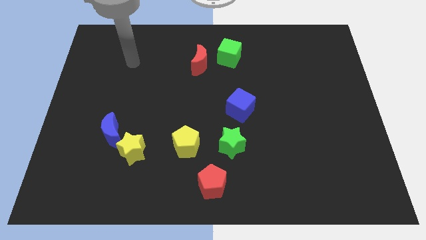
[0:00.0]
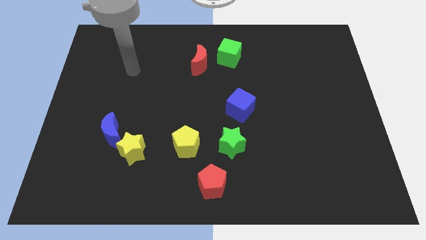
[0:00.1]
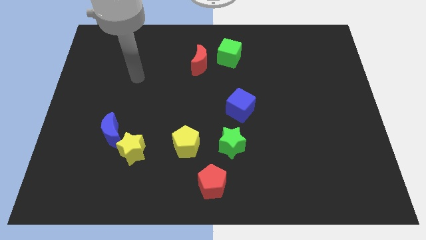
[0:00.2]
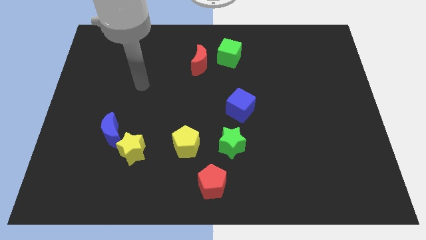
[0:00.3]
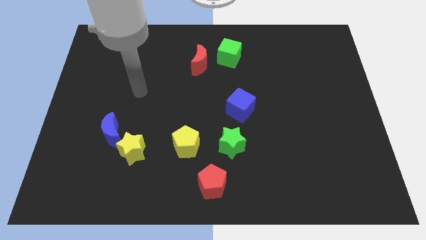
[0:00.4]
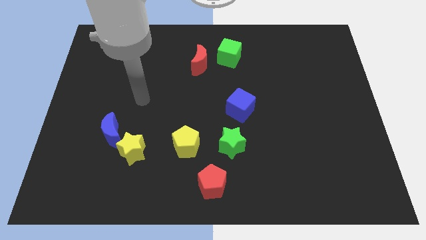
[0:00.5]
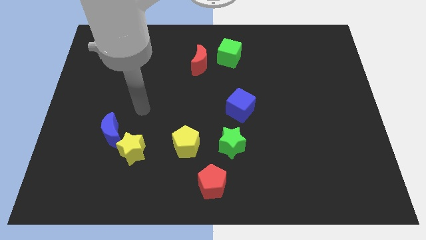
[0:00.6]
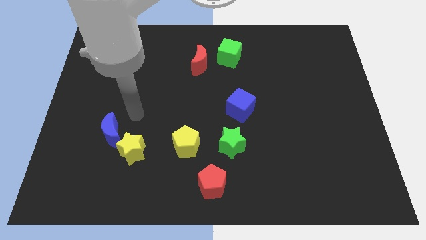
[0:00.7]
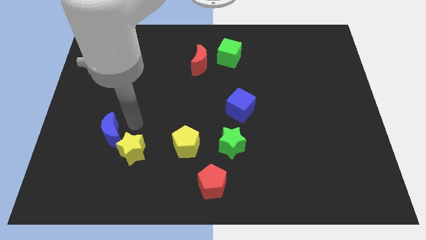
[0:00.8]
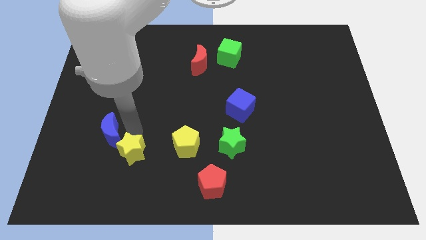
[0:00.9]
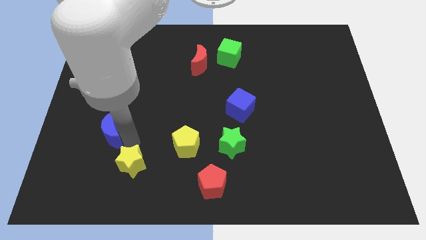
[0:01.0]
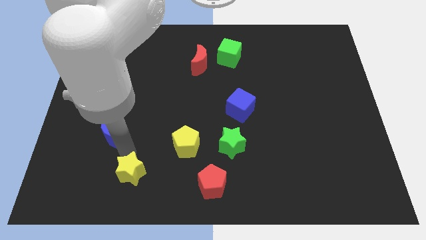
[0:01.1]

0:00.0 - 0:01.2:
separate the blue moon from the yellow star

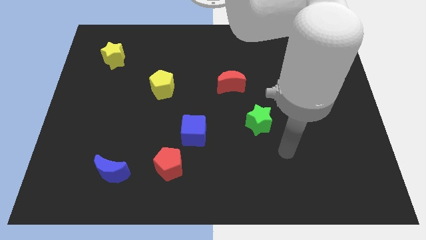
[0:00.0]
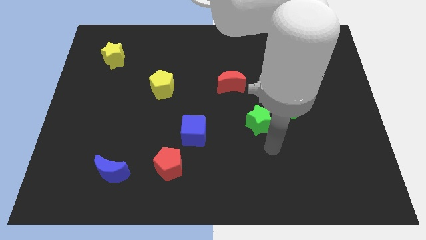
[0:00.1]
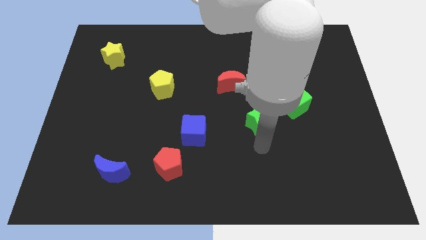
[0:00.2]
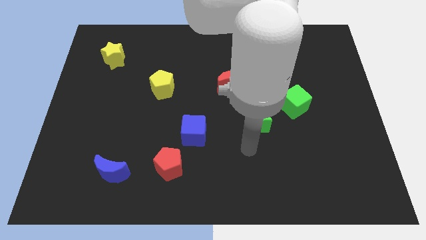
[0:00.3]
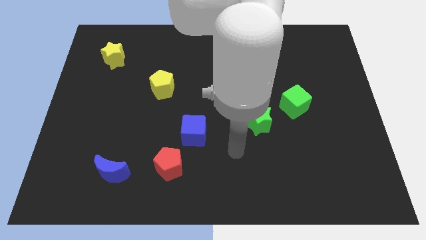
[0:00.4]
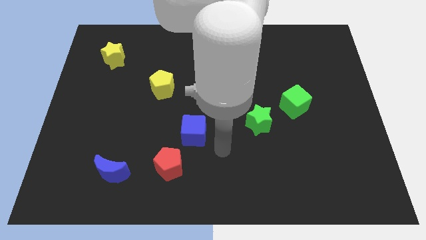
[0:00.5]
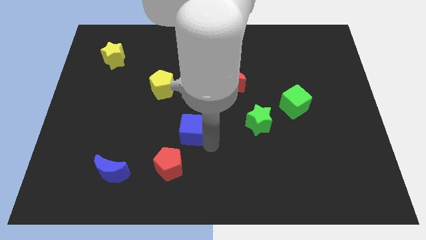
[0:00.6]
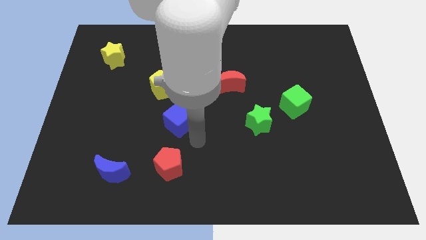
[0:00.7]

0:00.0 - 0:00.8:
pull the red pentagon apart from the blue cube

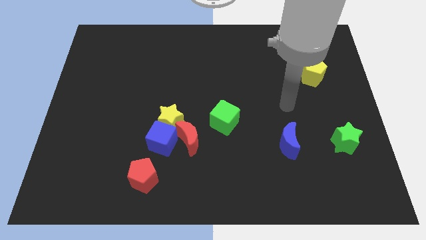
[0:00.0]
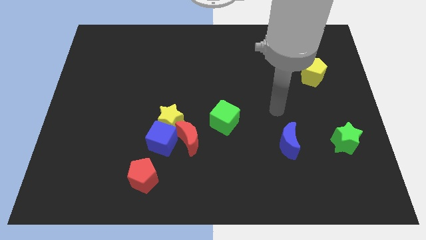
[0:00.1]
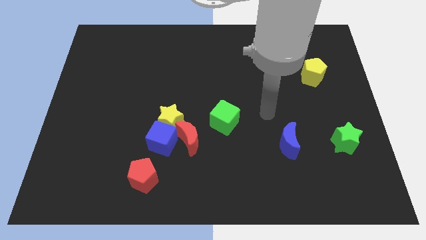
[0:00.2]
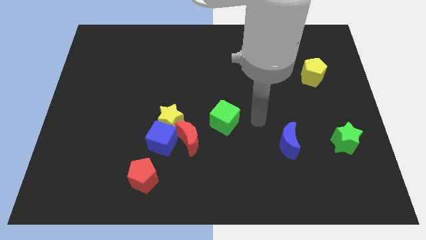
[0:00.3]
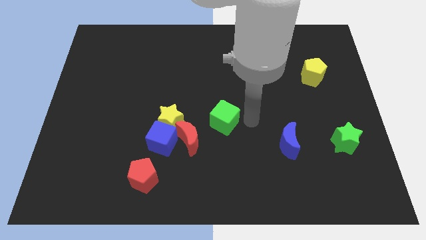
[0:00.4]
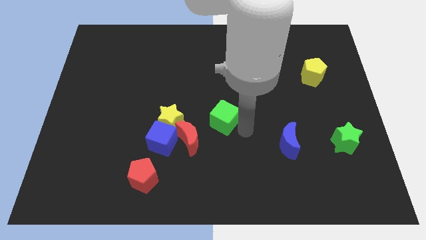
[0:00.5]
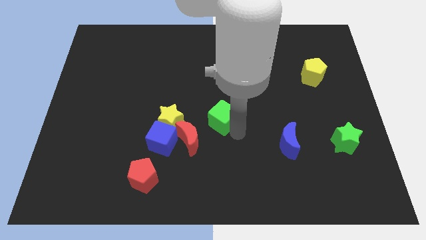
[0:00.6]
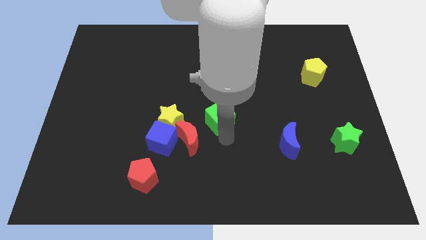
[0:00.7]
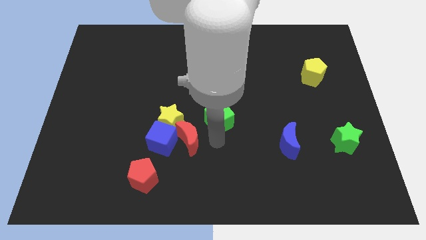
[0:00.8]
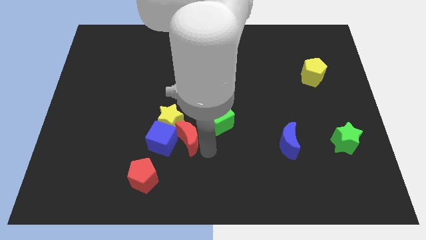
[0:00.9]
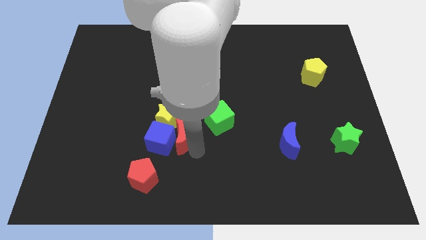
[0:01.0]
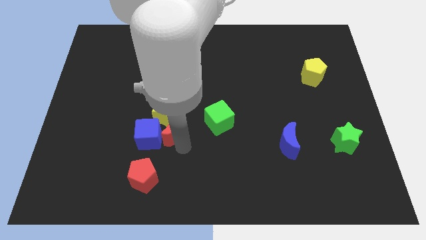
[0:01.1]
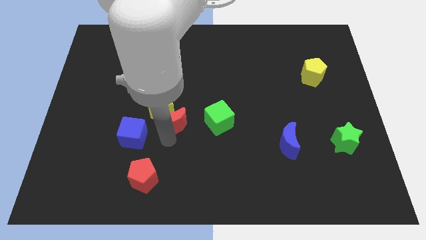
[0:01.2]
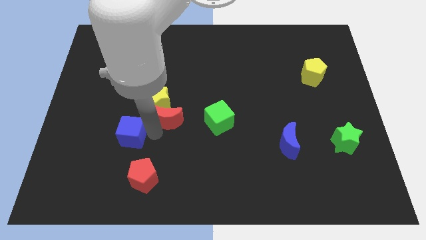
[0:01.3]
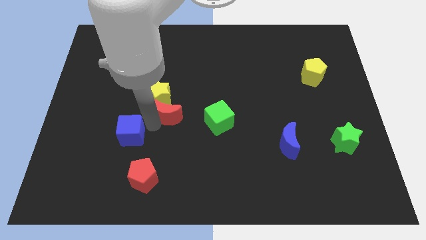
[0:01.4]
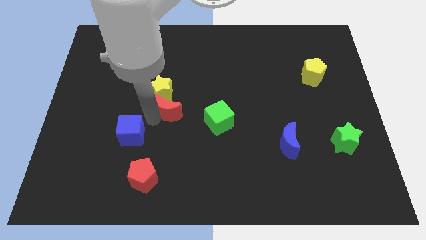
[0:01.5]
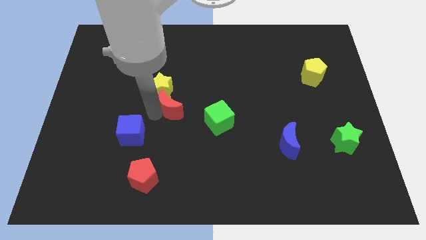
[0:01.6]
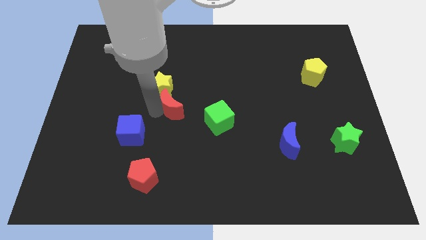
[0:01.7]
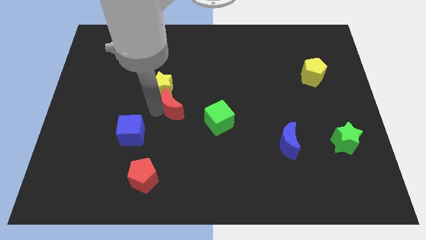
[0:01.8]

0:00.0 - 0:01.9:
pull the yellow star apart from the blue cube and red moon

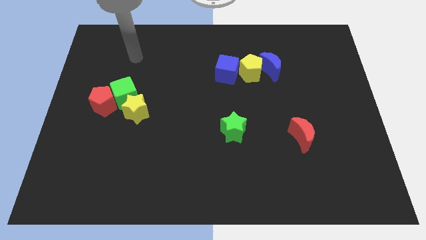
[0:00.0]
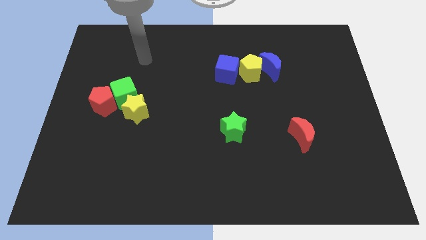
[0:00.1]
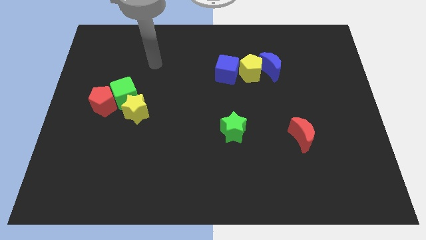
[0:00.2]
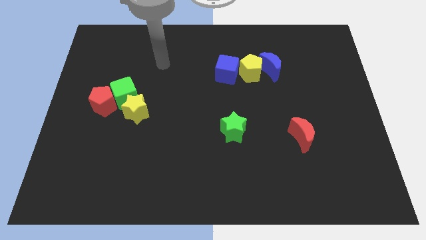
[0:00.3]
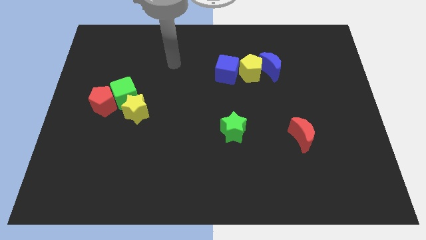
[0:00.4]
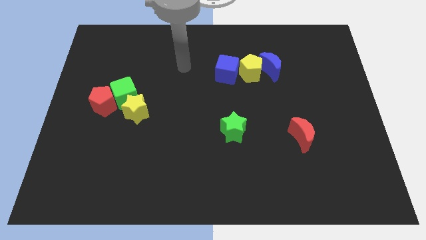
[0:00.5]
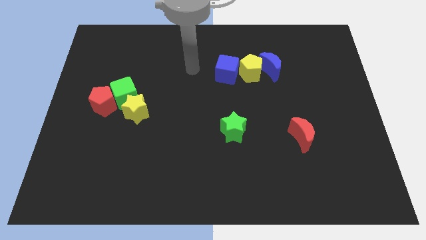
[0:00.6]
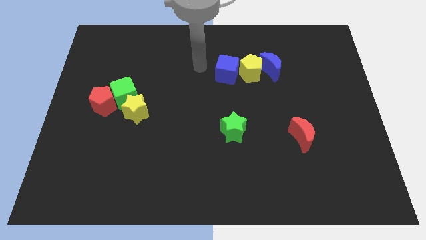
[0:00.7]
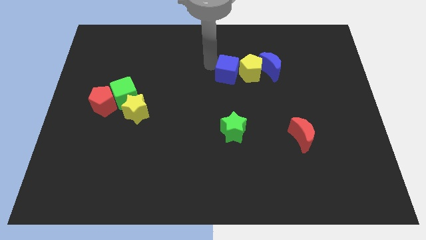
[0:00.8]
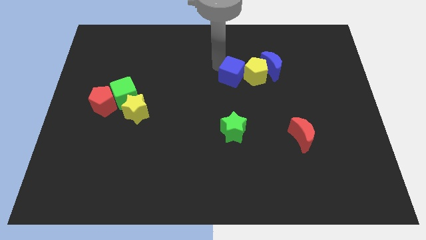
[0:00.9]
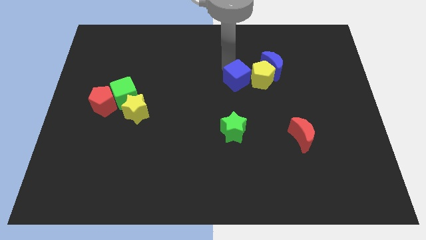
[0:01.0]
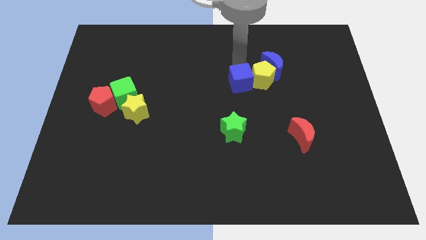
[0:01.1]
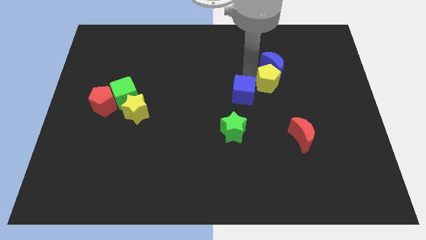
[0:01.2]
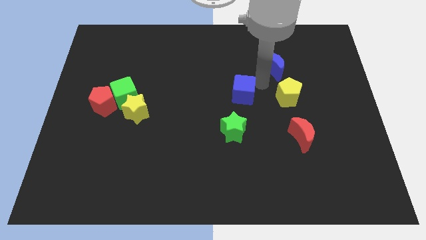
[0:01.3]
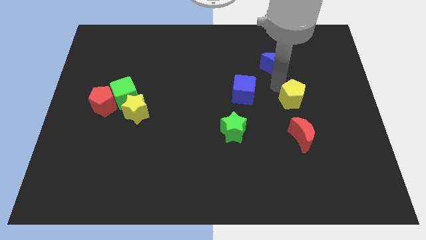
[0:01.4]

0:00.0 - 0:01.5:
pull the blue moon apart from the yellow pentagon

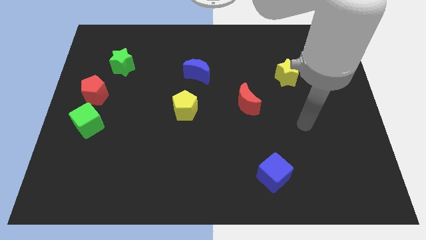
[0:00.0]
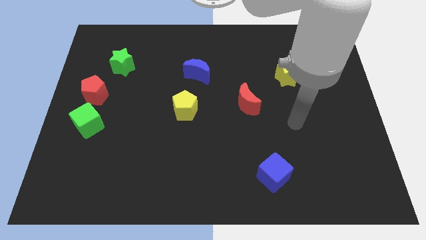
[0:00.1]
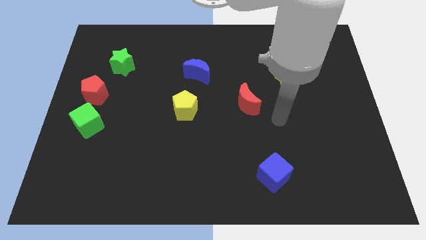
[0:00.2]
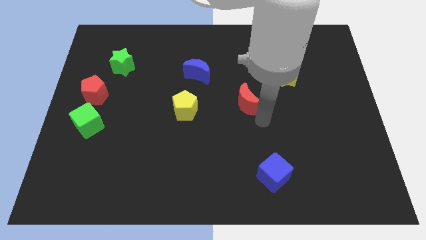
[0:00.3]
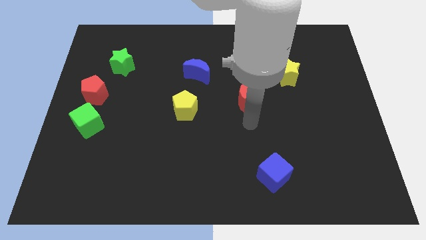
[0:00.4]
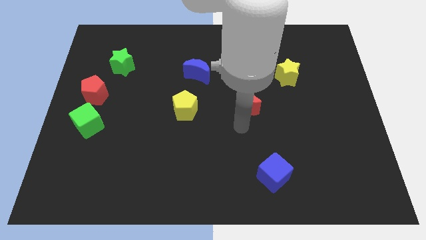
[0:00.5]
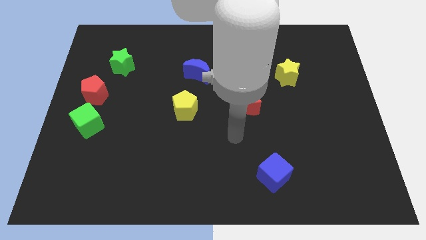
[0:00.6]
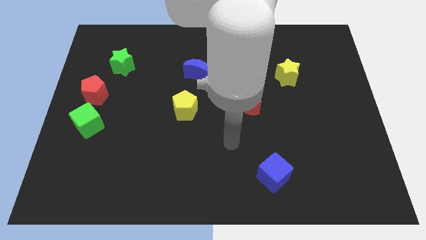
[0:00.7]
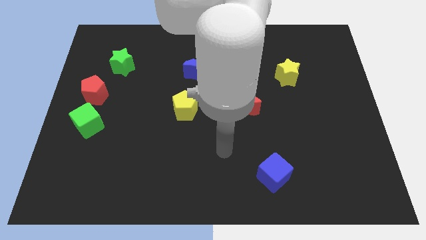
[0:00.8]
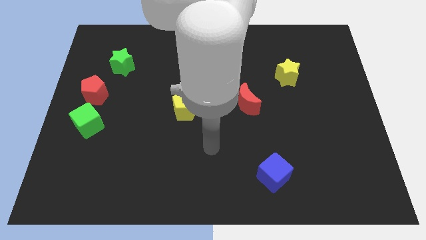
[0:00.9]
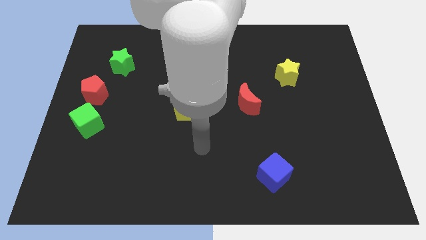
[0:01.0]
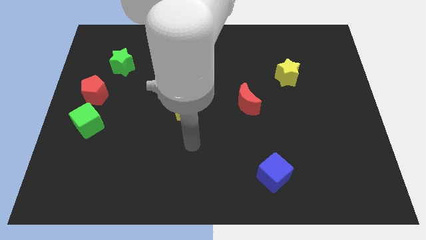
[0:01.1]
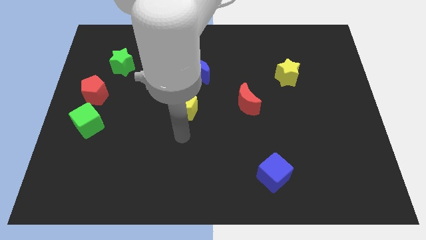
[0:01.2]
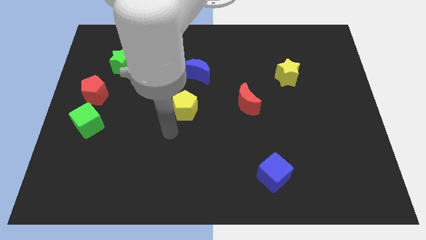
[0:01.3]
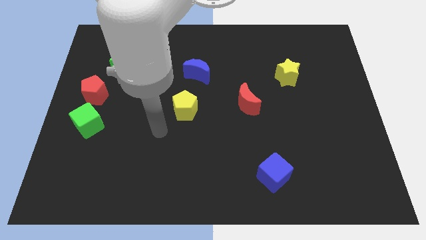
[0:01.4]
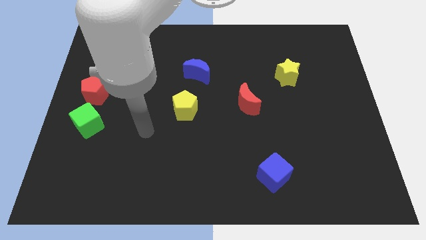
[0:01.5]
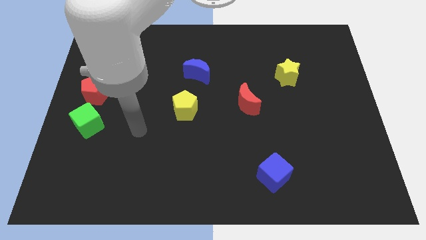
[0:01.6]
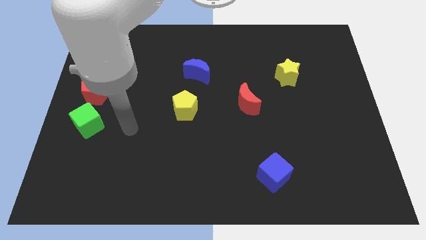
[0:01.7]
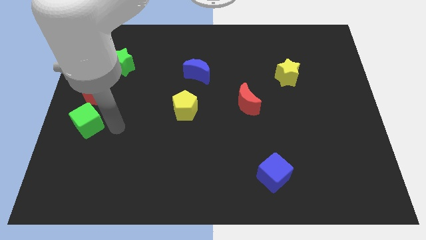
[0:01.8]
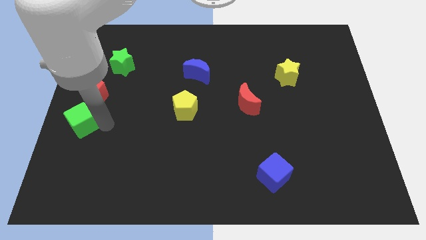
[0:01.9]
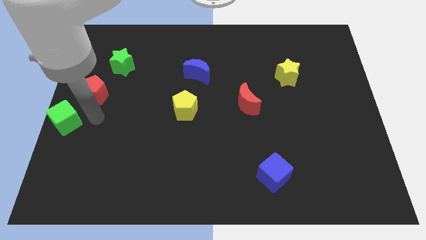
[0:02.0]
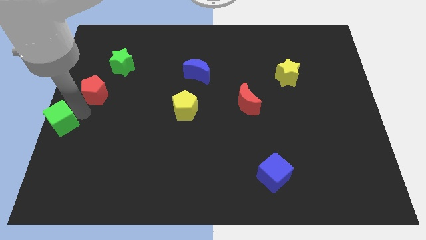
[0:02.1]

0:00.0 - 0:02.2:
separate the red pentagon from the green cube

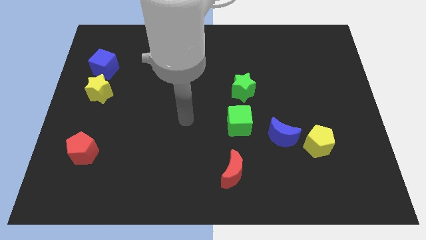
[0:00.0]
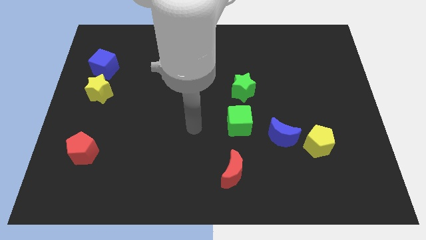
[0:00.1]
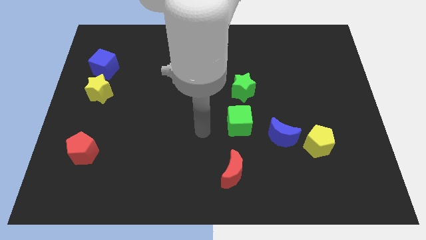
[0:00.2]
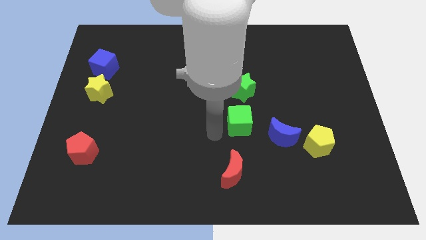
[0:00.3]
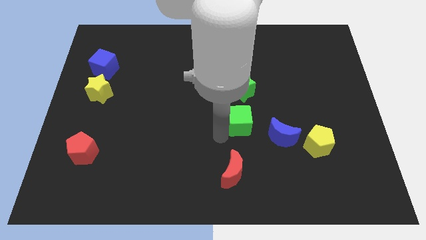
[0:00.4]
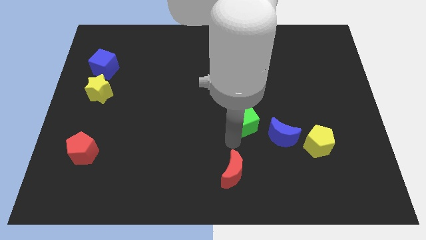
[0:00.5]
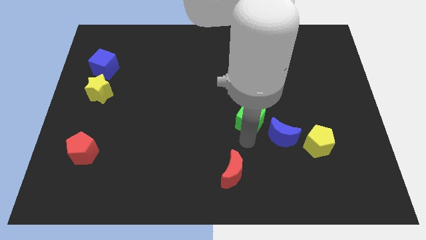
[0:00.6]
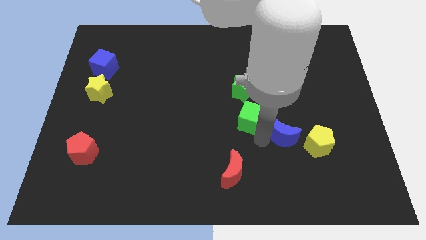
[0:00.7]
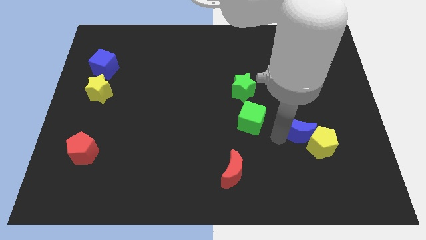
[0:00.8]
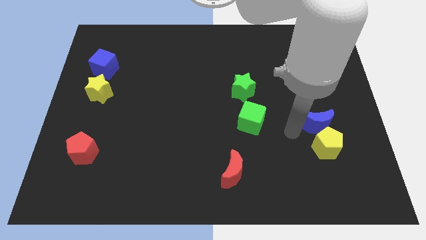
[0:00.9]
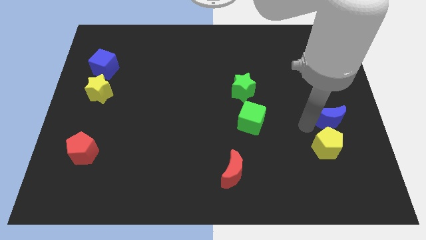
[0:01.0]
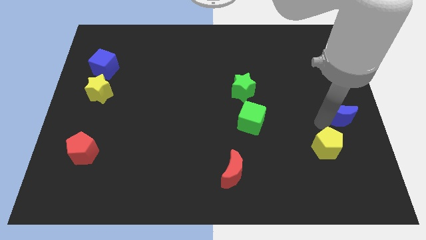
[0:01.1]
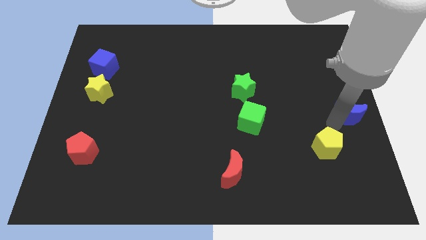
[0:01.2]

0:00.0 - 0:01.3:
separate the yellow pentagon from the blue moon

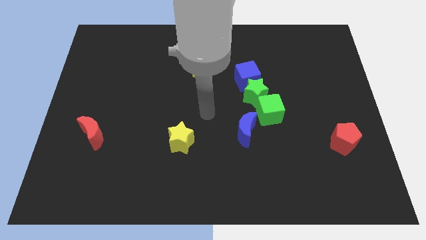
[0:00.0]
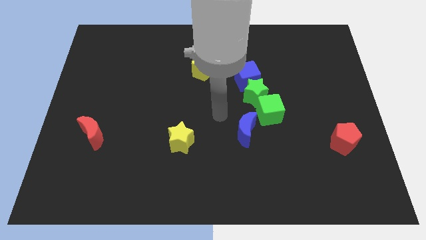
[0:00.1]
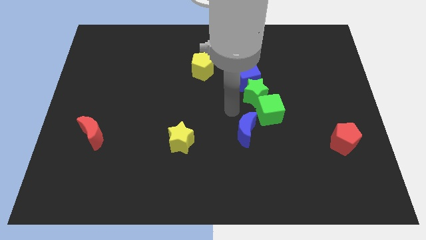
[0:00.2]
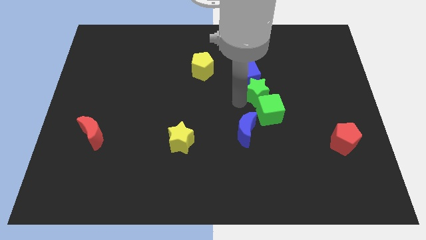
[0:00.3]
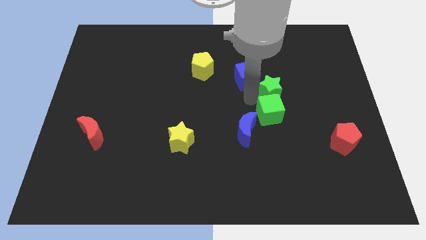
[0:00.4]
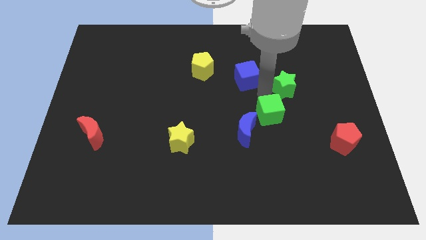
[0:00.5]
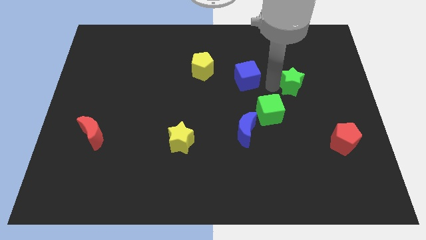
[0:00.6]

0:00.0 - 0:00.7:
separate the blue cube from the green star
